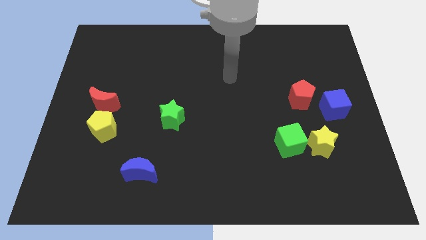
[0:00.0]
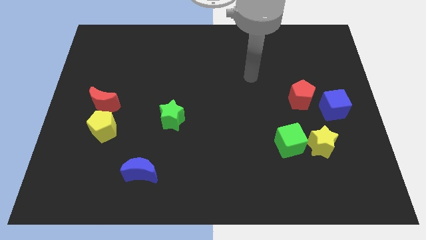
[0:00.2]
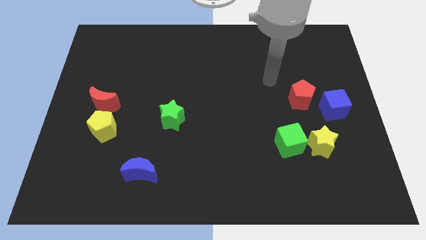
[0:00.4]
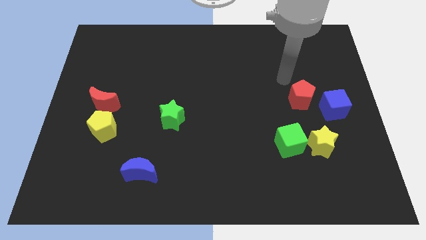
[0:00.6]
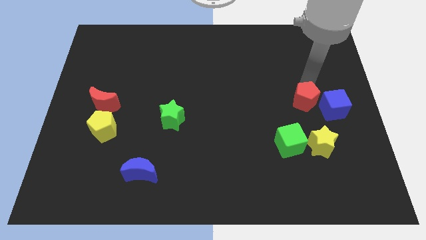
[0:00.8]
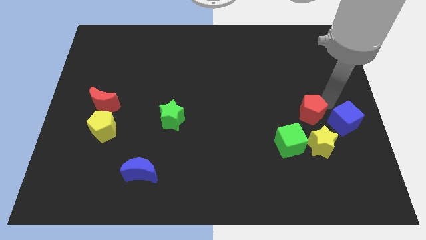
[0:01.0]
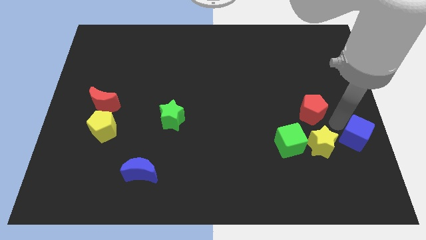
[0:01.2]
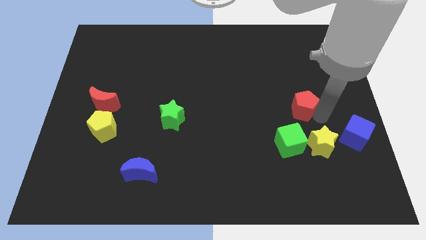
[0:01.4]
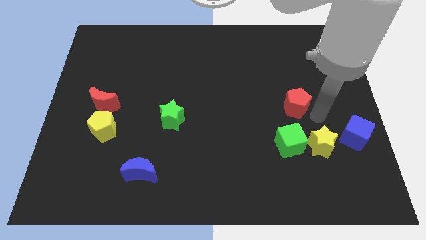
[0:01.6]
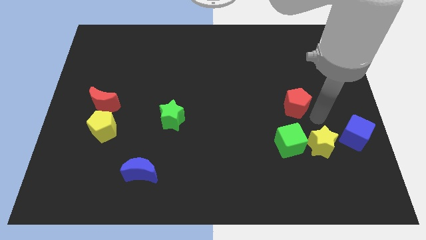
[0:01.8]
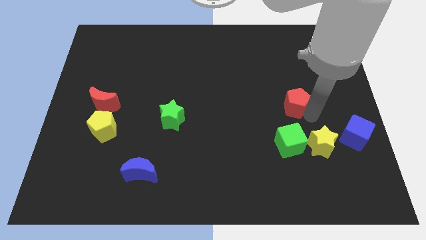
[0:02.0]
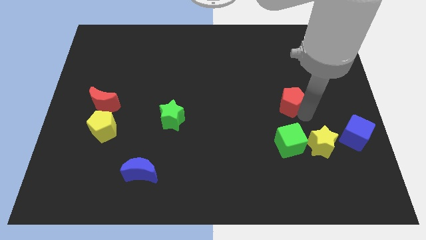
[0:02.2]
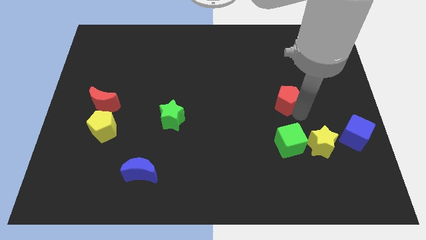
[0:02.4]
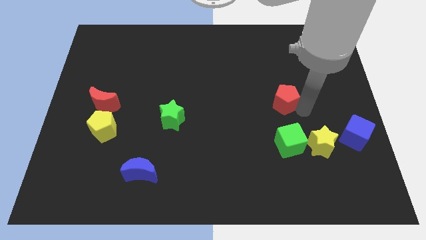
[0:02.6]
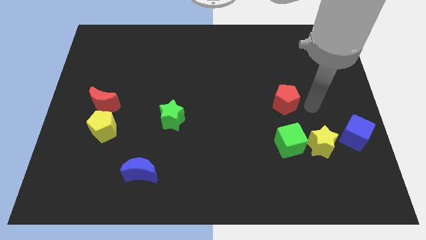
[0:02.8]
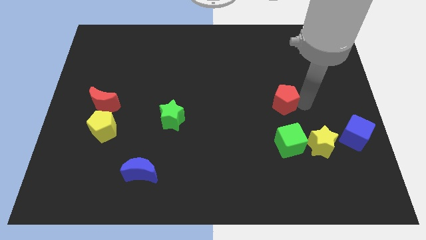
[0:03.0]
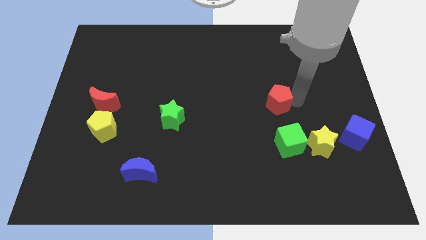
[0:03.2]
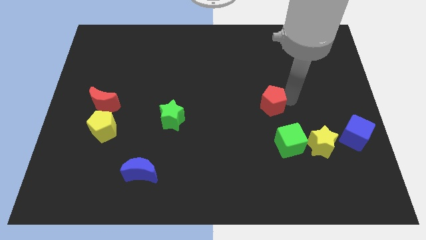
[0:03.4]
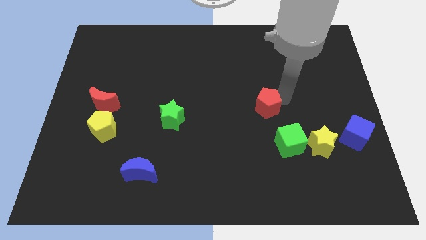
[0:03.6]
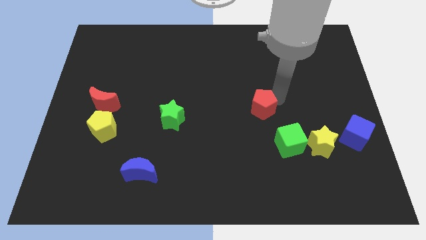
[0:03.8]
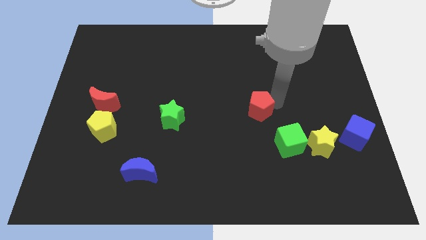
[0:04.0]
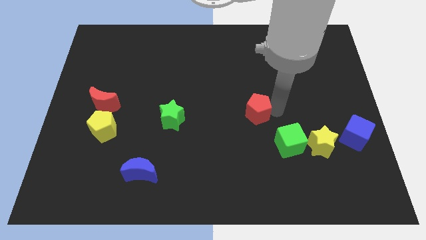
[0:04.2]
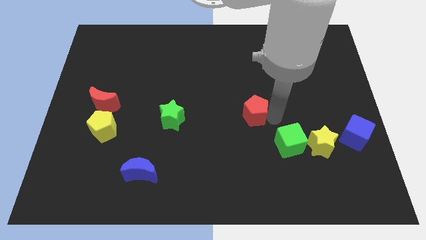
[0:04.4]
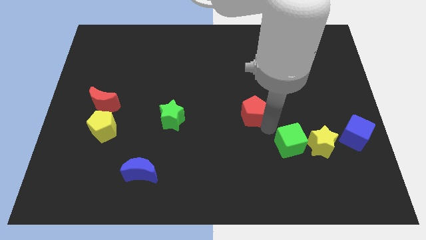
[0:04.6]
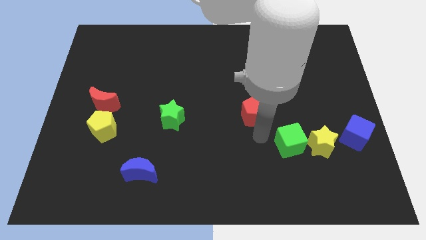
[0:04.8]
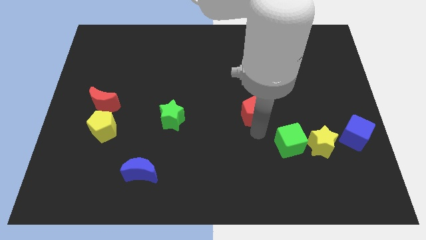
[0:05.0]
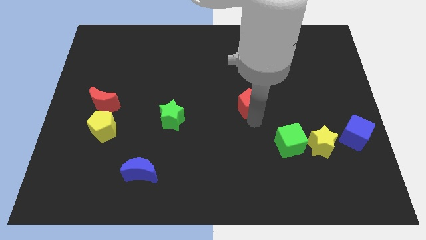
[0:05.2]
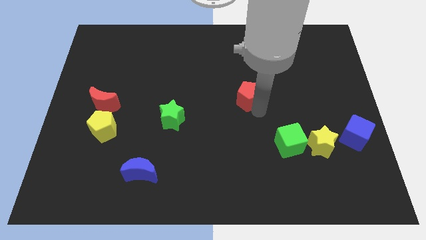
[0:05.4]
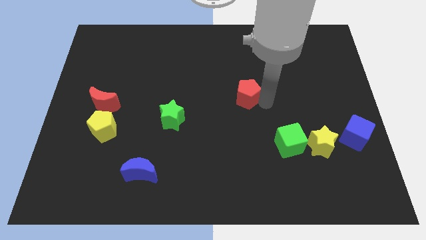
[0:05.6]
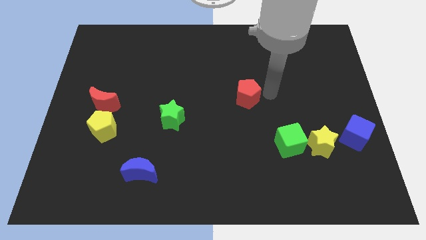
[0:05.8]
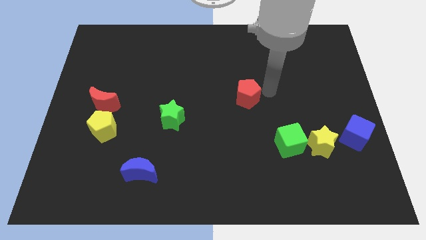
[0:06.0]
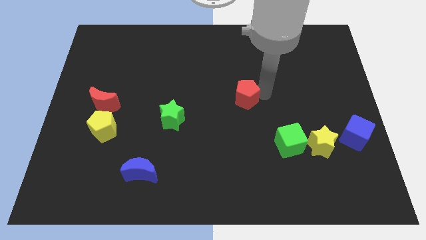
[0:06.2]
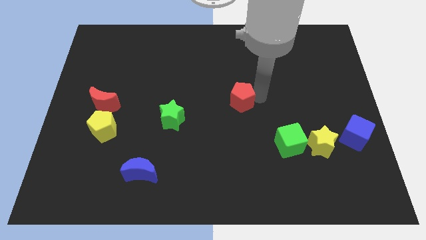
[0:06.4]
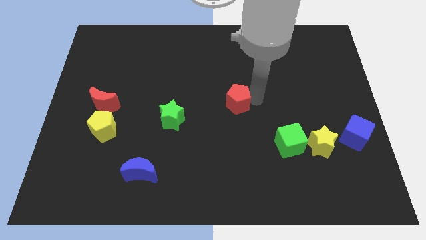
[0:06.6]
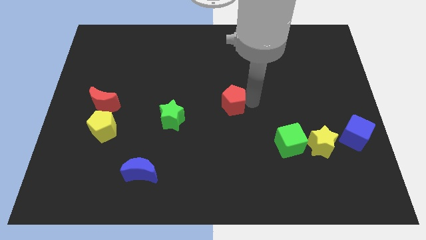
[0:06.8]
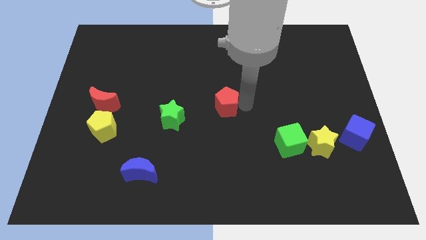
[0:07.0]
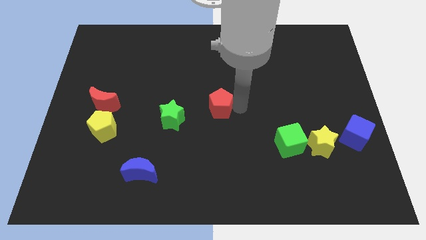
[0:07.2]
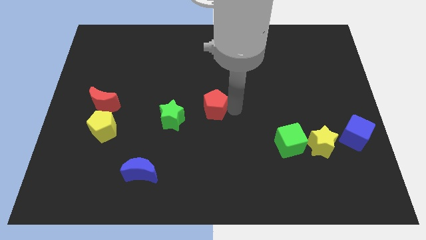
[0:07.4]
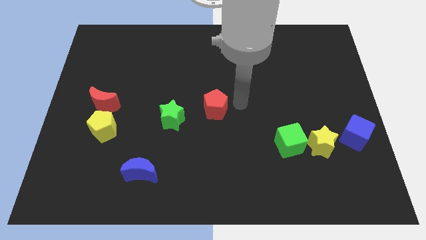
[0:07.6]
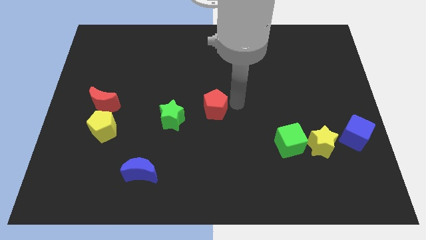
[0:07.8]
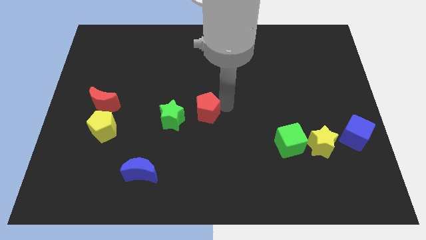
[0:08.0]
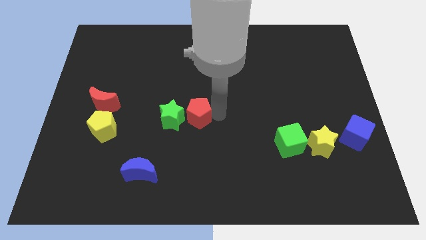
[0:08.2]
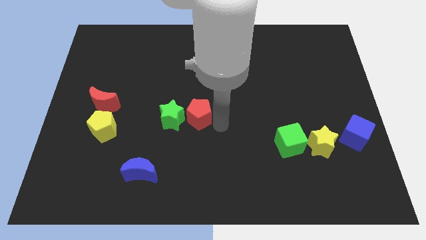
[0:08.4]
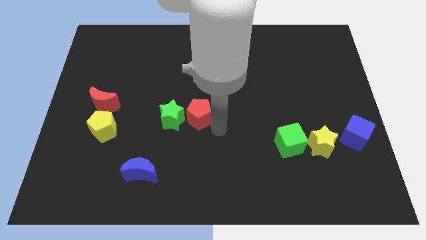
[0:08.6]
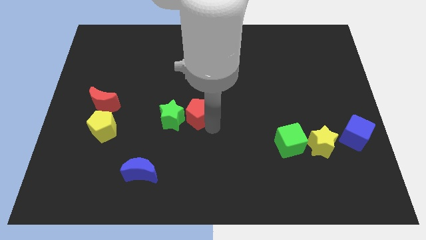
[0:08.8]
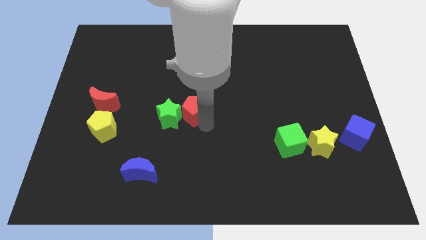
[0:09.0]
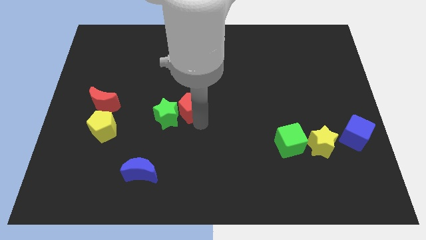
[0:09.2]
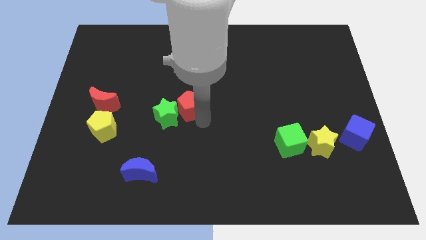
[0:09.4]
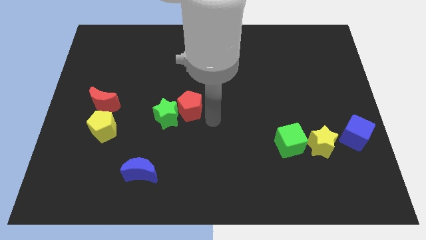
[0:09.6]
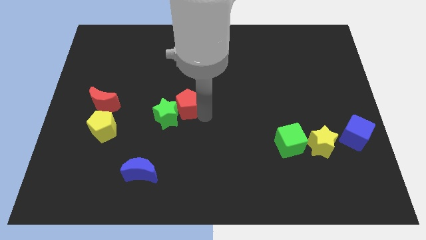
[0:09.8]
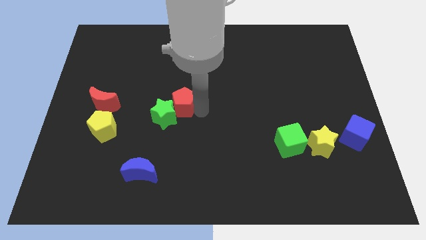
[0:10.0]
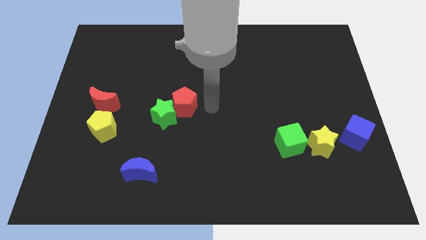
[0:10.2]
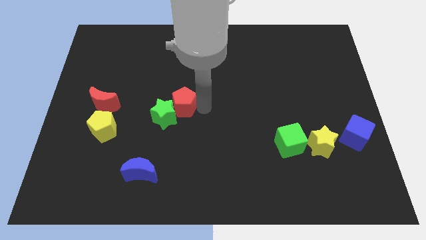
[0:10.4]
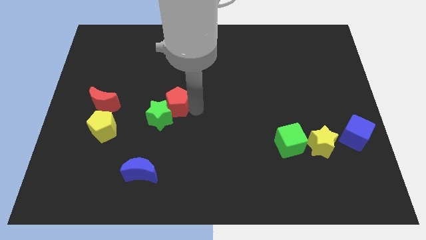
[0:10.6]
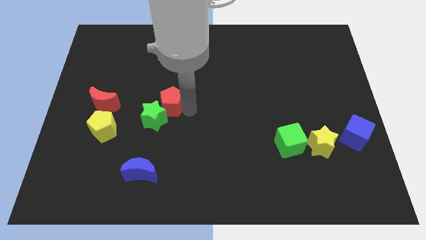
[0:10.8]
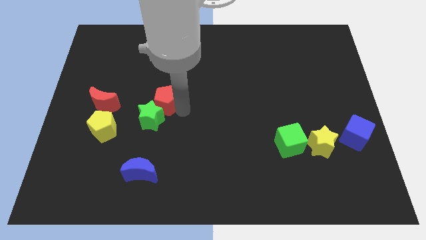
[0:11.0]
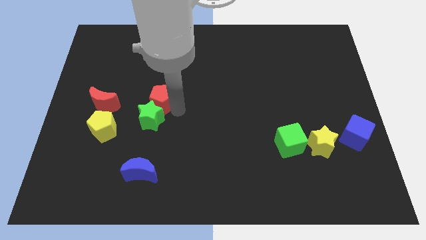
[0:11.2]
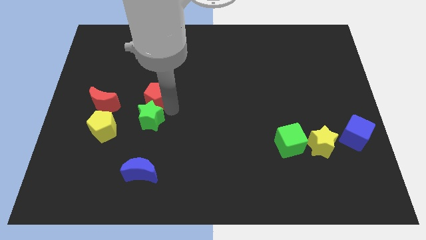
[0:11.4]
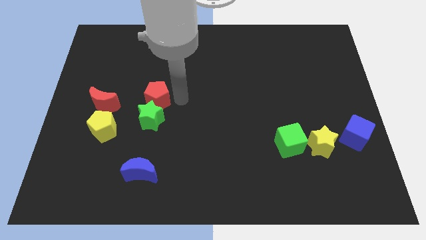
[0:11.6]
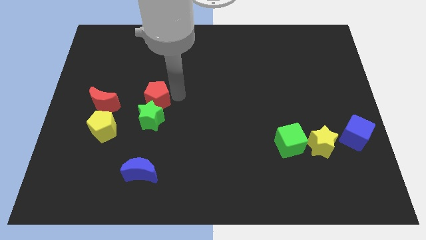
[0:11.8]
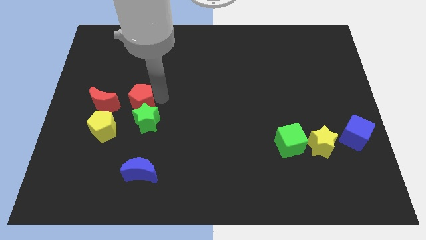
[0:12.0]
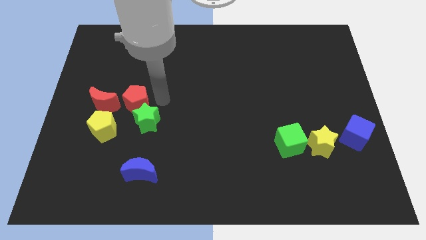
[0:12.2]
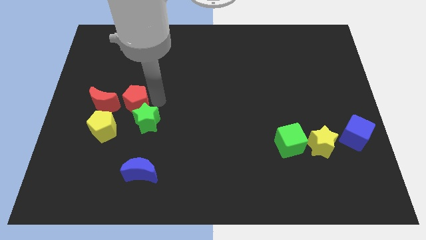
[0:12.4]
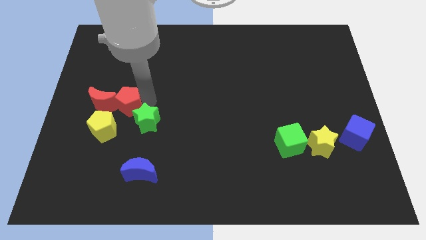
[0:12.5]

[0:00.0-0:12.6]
move the red pentagon next to the red moon

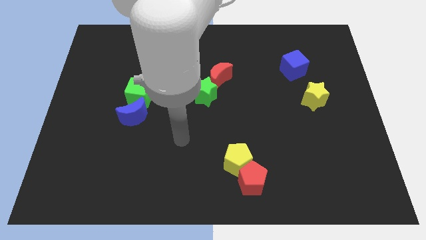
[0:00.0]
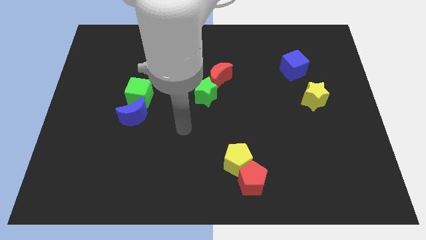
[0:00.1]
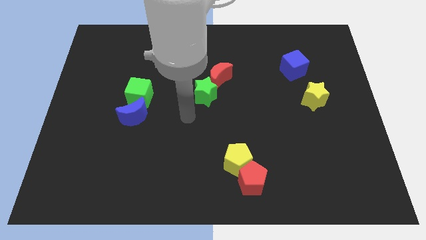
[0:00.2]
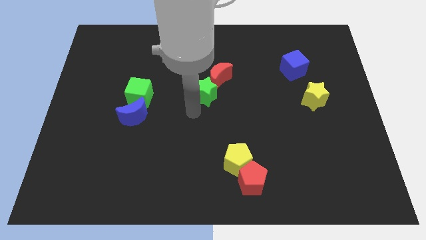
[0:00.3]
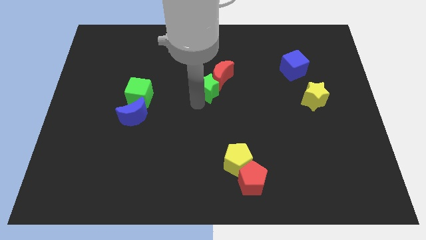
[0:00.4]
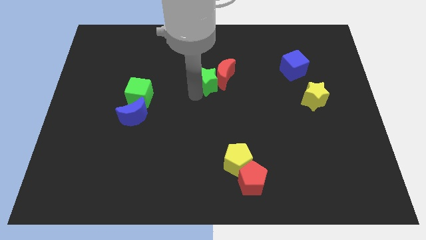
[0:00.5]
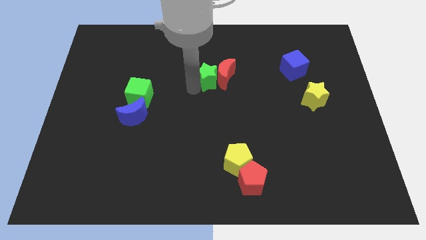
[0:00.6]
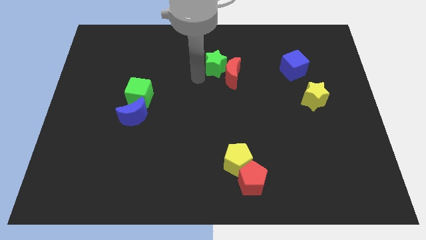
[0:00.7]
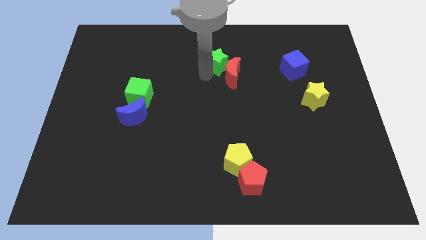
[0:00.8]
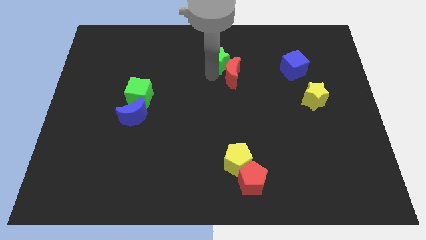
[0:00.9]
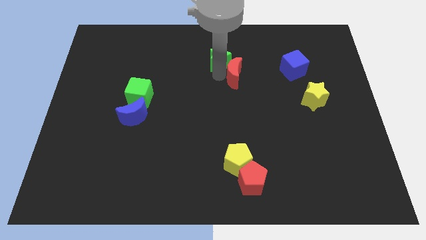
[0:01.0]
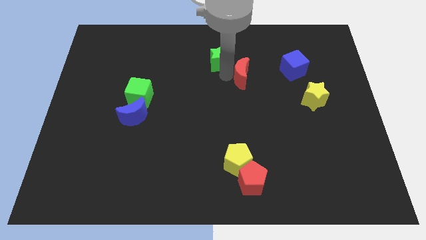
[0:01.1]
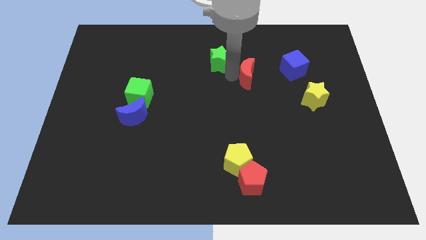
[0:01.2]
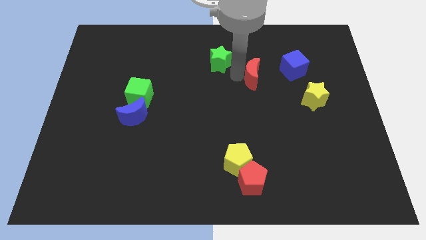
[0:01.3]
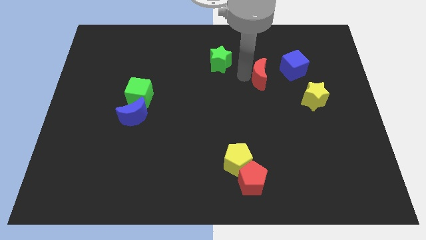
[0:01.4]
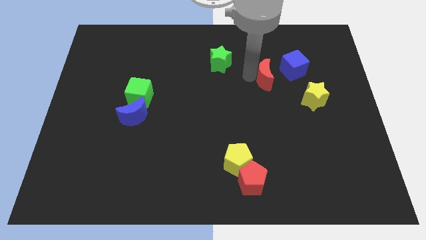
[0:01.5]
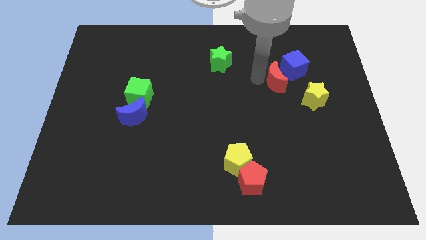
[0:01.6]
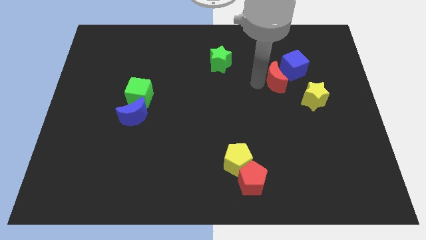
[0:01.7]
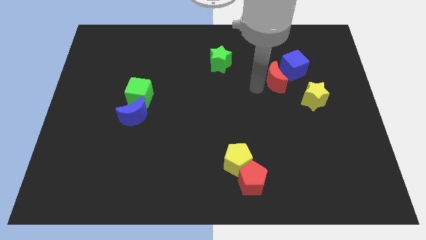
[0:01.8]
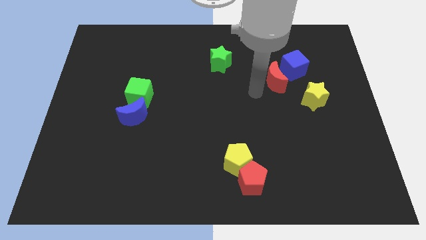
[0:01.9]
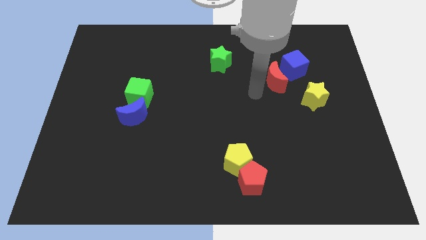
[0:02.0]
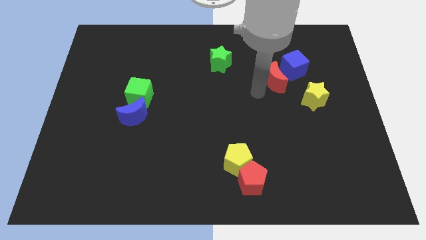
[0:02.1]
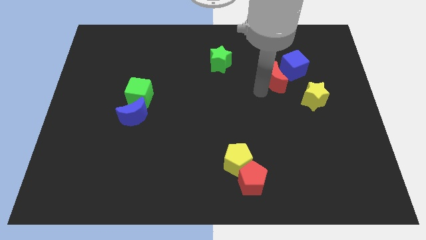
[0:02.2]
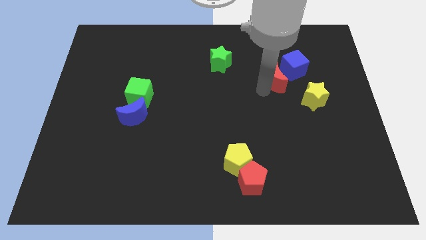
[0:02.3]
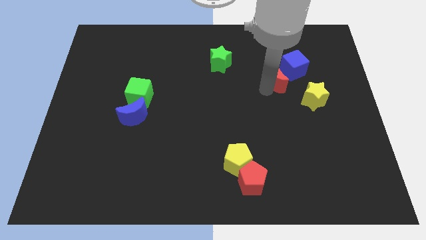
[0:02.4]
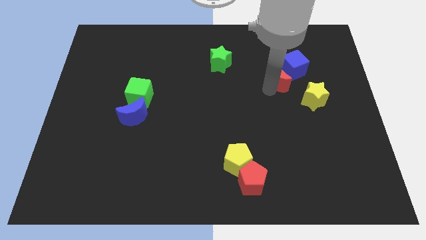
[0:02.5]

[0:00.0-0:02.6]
push the red moon to the blue cube
